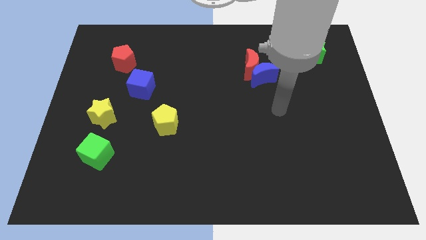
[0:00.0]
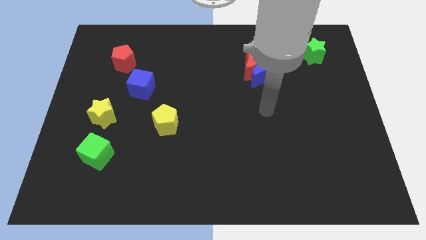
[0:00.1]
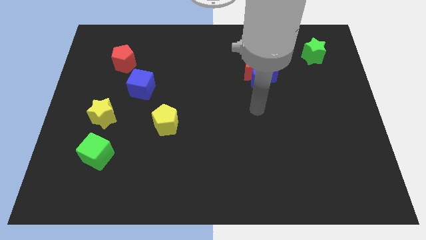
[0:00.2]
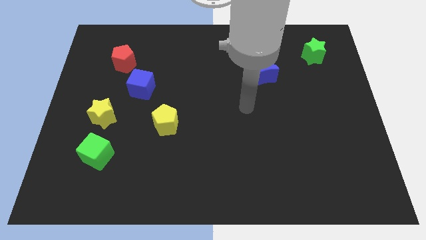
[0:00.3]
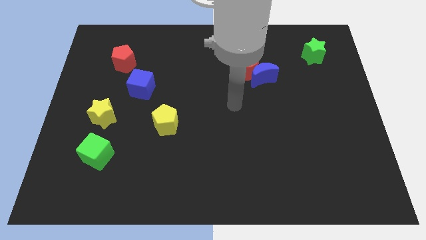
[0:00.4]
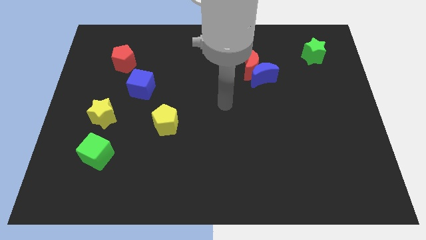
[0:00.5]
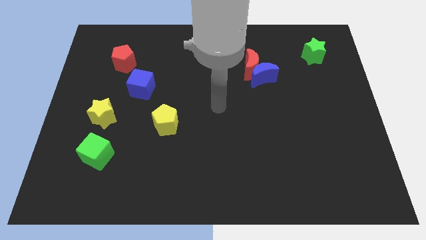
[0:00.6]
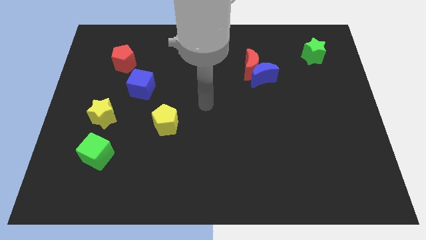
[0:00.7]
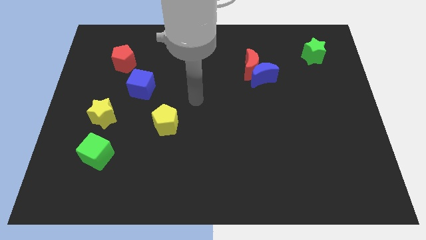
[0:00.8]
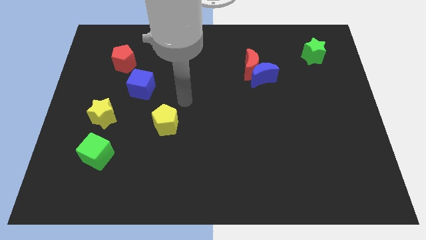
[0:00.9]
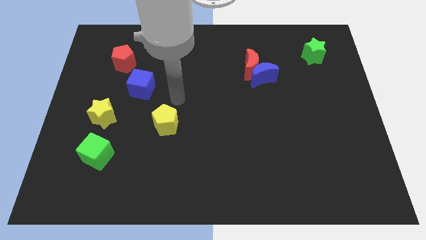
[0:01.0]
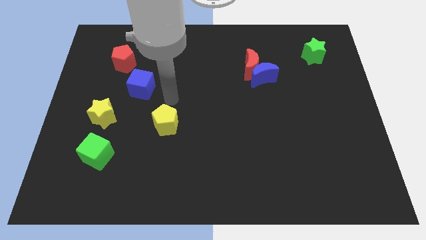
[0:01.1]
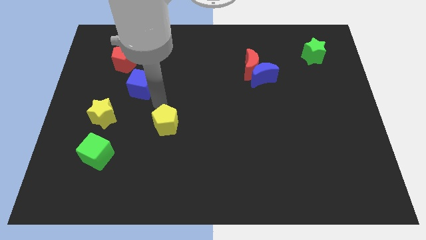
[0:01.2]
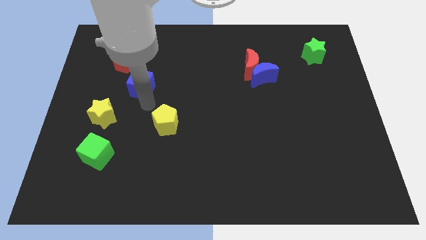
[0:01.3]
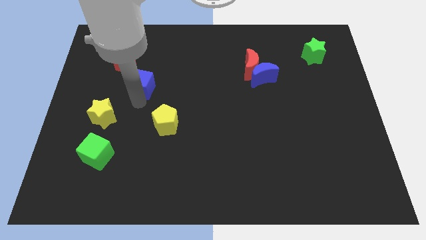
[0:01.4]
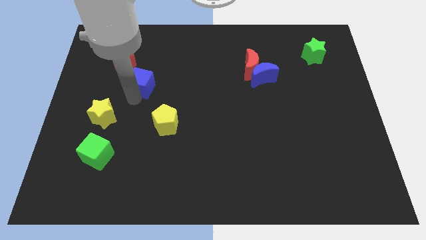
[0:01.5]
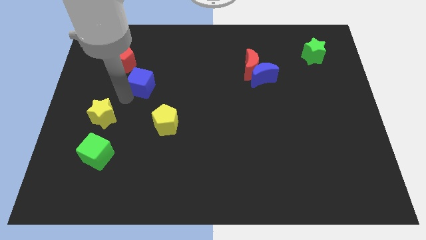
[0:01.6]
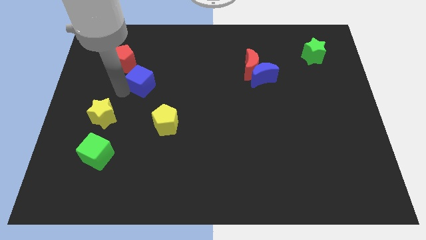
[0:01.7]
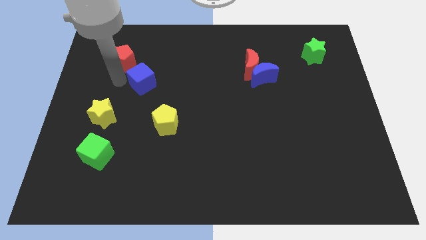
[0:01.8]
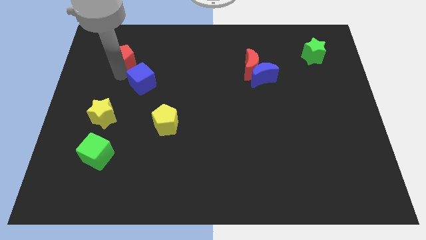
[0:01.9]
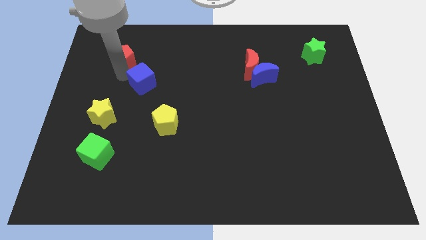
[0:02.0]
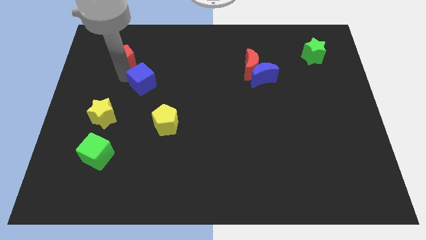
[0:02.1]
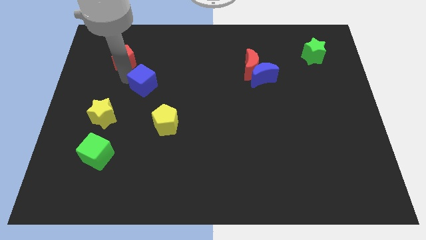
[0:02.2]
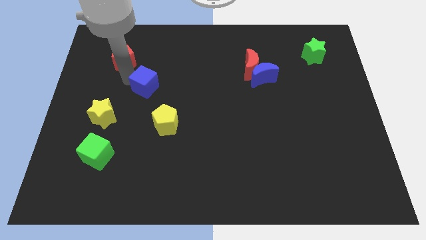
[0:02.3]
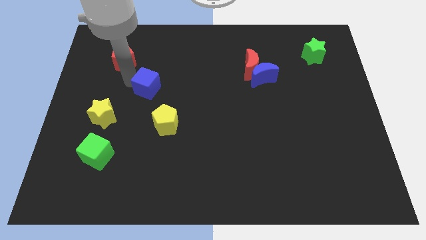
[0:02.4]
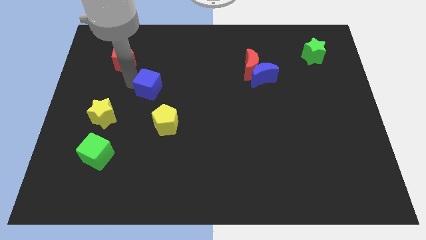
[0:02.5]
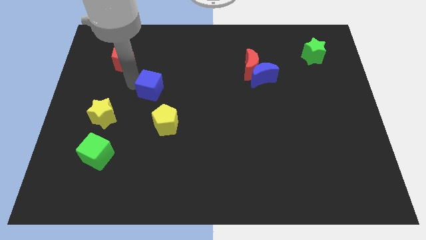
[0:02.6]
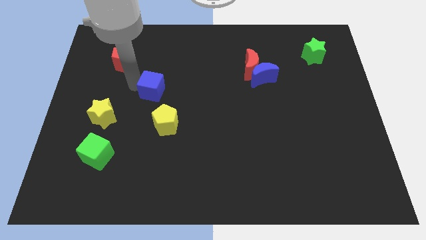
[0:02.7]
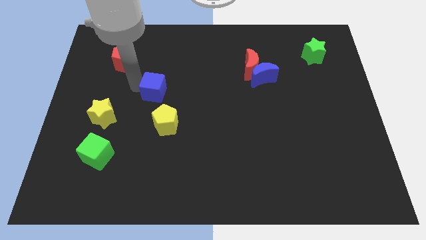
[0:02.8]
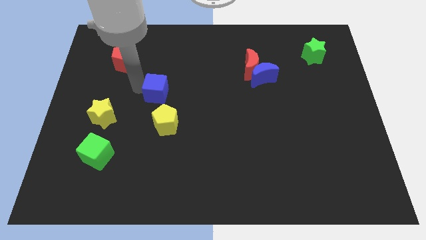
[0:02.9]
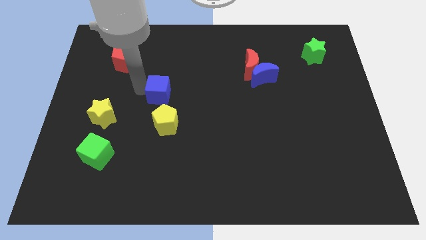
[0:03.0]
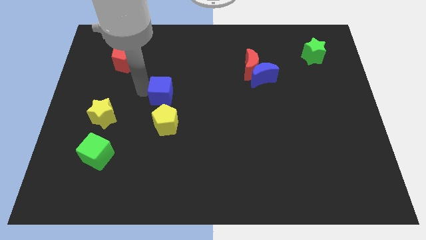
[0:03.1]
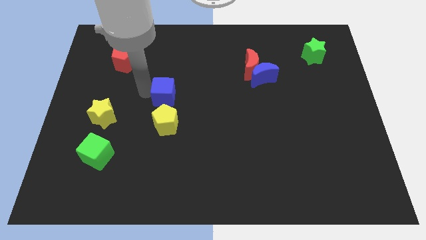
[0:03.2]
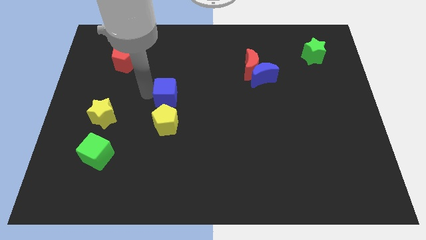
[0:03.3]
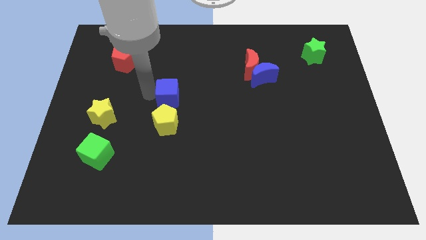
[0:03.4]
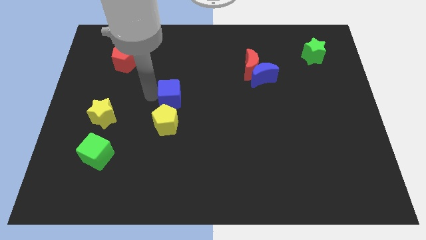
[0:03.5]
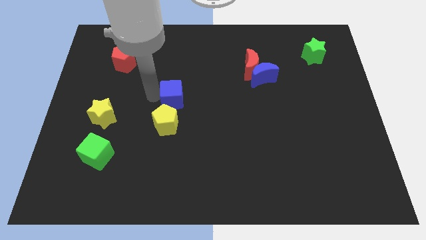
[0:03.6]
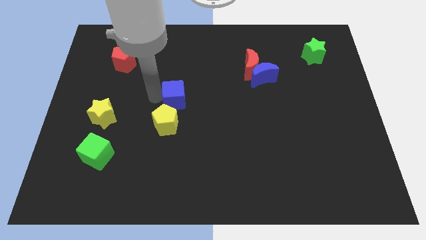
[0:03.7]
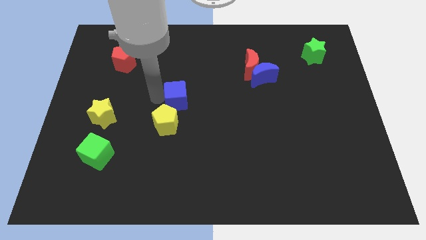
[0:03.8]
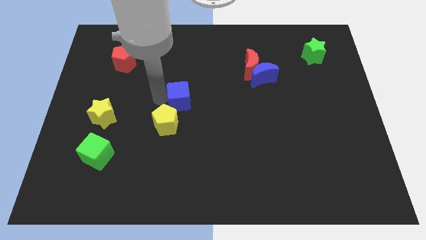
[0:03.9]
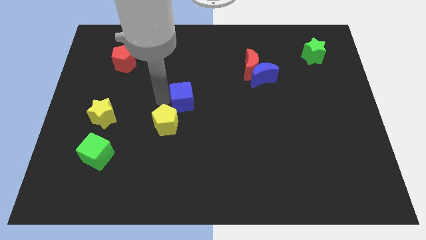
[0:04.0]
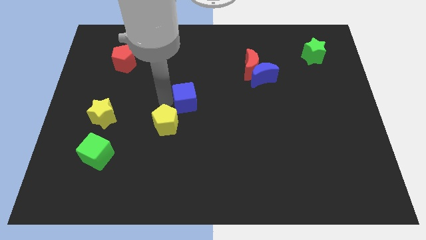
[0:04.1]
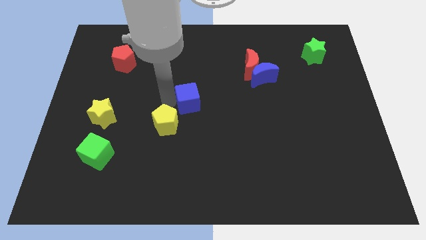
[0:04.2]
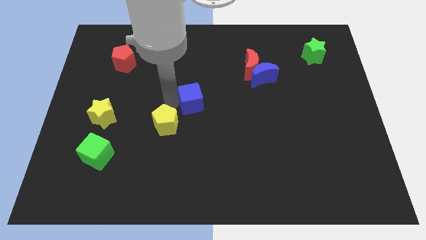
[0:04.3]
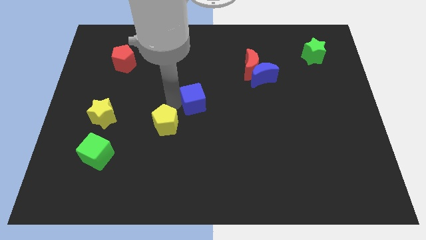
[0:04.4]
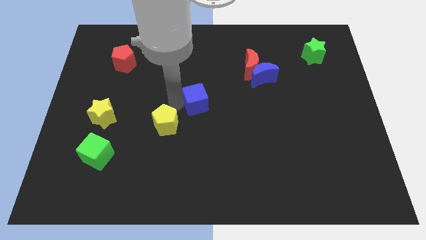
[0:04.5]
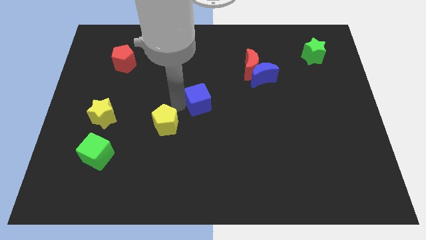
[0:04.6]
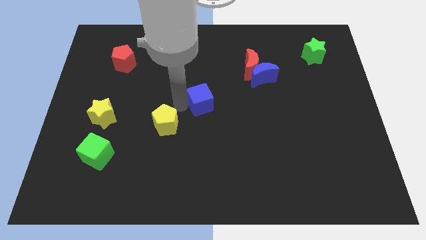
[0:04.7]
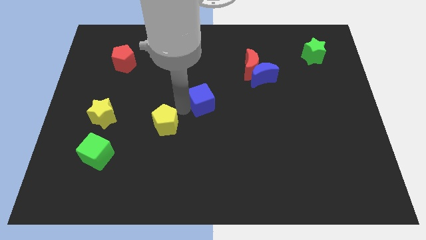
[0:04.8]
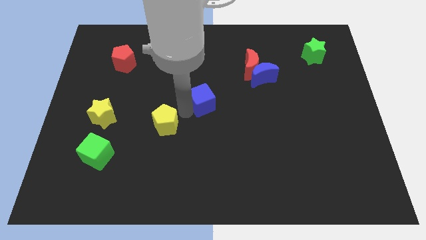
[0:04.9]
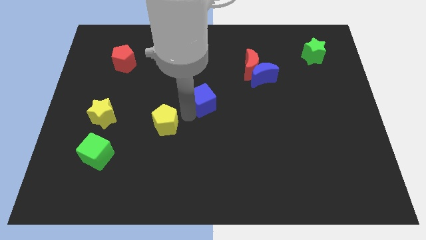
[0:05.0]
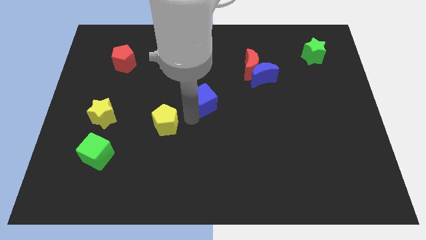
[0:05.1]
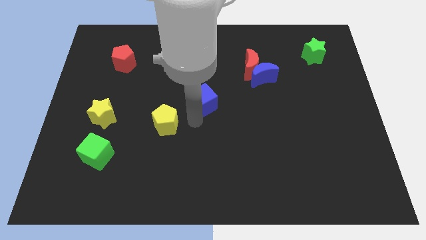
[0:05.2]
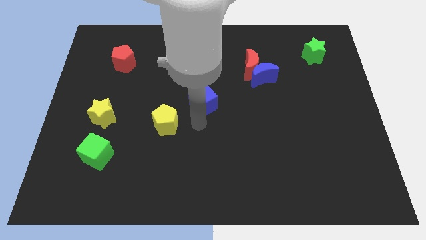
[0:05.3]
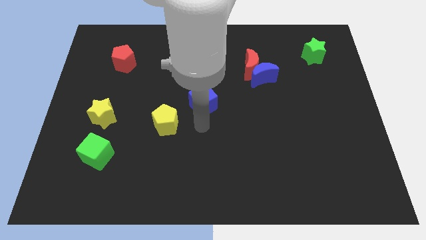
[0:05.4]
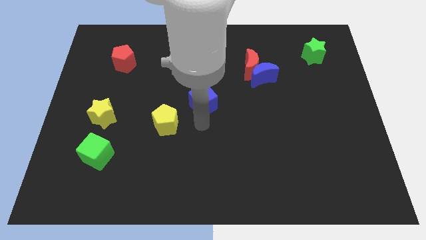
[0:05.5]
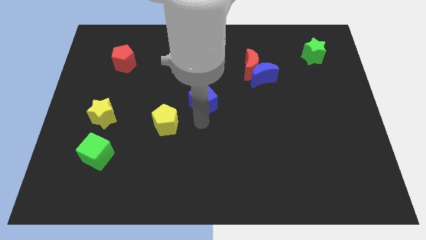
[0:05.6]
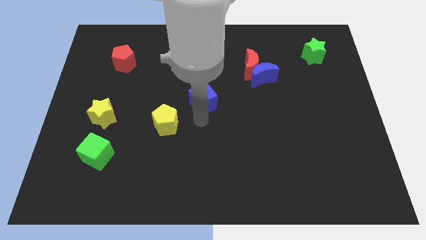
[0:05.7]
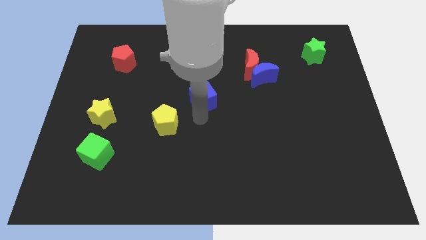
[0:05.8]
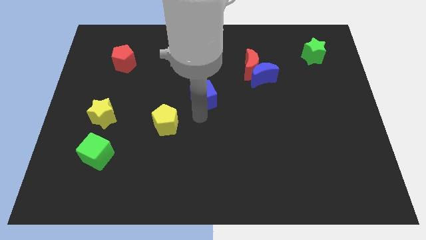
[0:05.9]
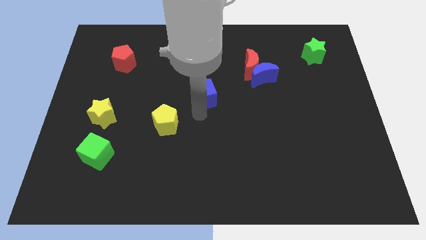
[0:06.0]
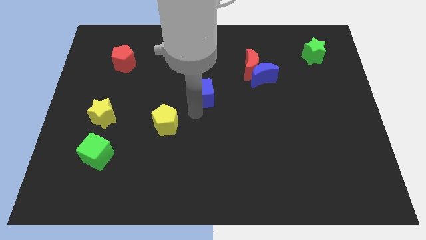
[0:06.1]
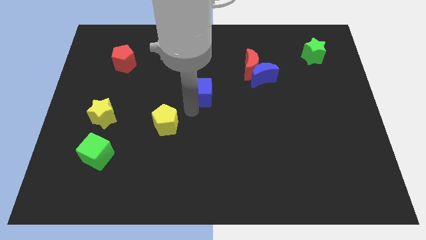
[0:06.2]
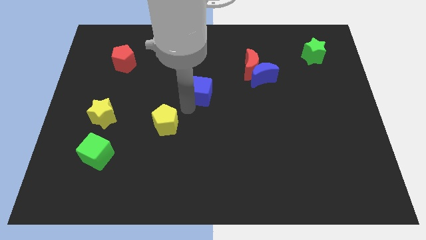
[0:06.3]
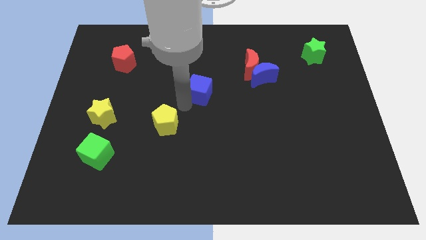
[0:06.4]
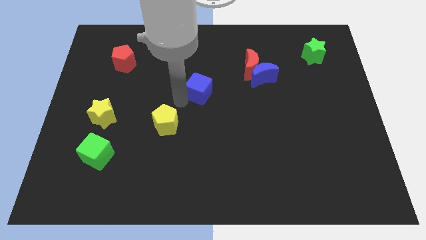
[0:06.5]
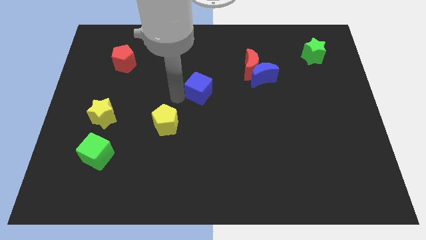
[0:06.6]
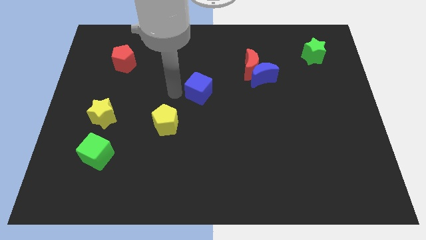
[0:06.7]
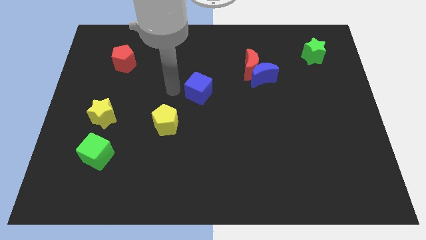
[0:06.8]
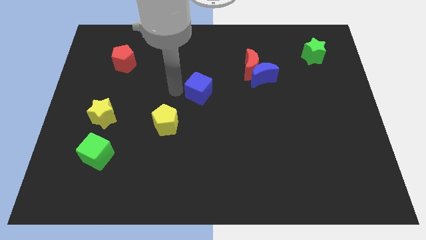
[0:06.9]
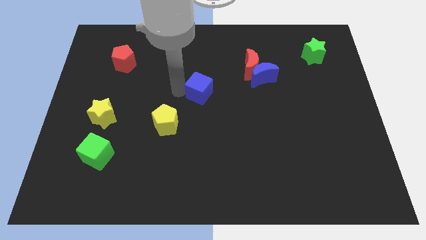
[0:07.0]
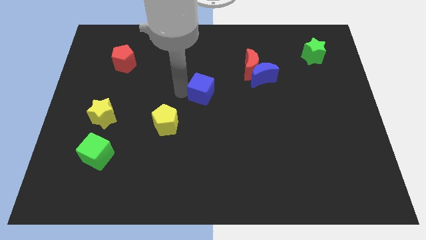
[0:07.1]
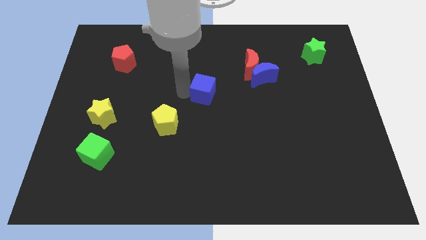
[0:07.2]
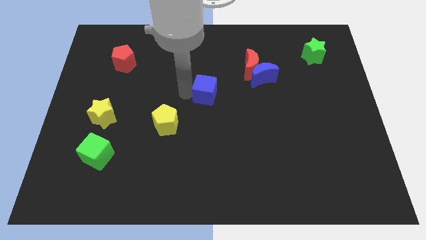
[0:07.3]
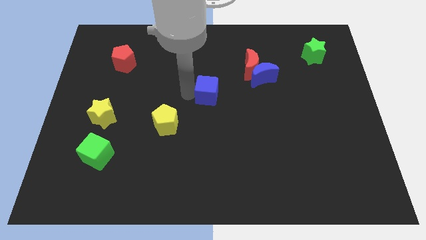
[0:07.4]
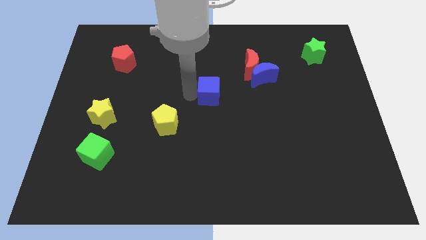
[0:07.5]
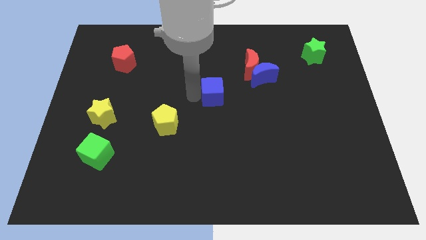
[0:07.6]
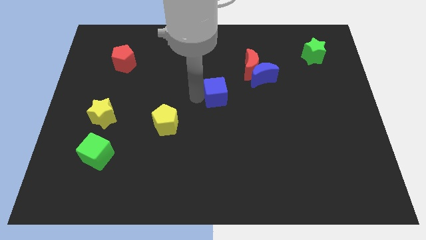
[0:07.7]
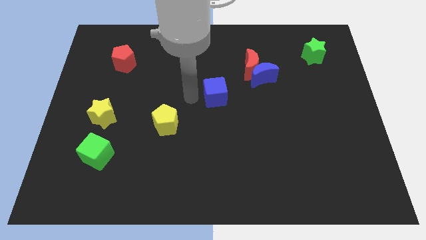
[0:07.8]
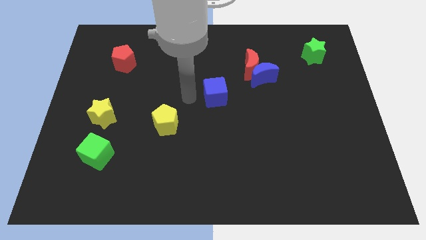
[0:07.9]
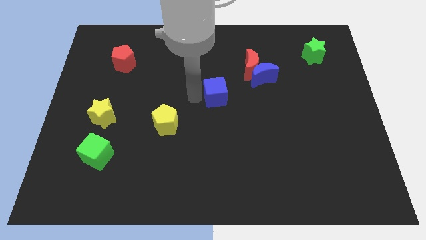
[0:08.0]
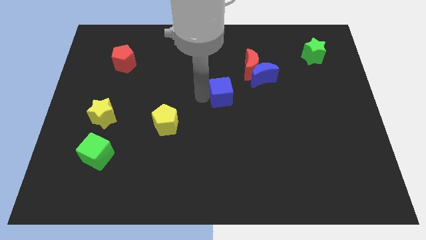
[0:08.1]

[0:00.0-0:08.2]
push the blue cube to the bottom left side of the blue moon
